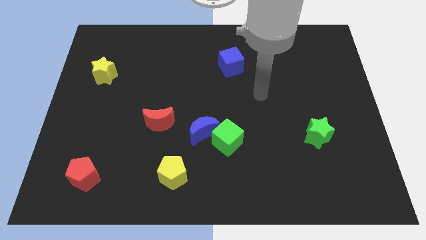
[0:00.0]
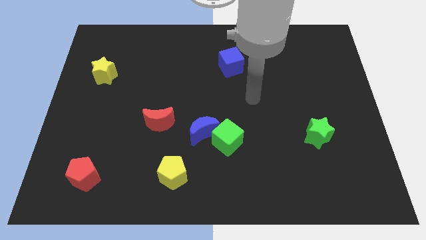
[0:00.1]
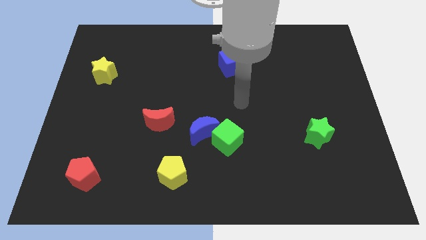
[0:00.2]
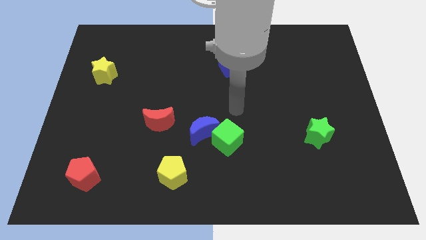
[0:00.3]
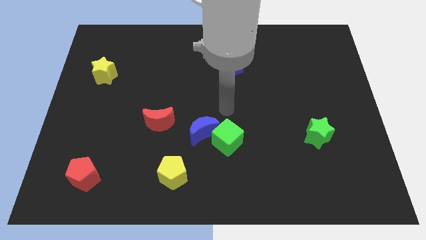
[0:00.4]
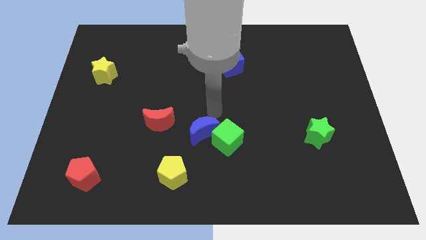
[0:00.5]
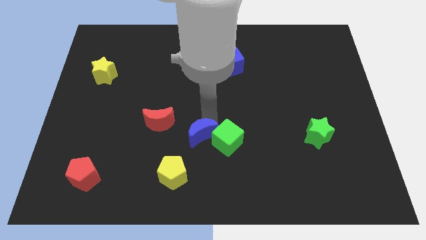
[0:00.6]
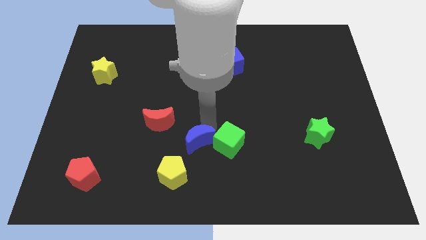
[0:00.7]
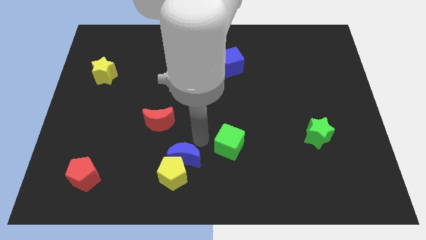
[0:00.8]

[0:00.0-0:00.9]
move the green cube away from the blue moon

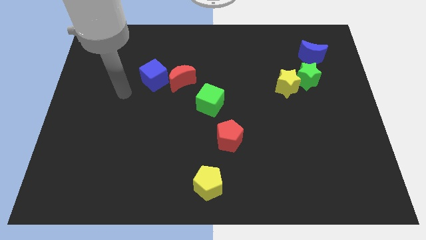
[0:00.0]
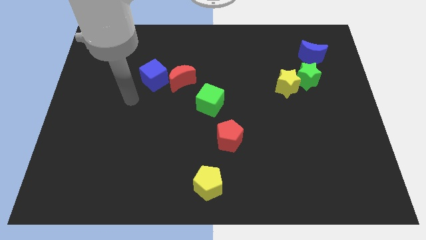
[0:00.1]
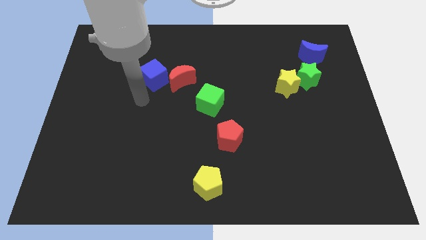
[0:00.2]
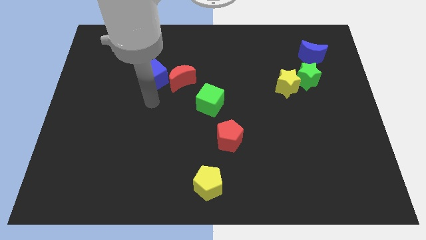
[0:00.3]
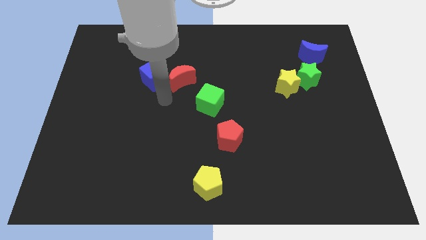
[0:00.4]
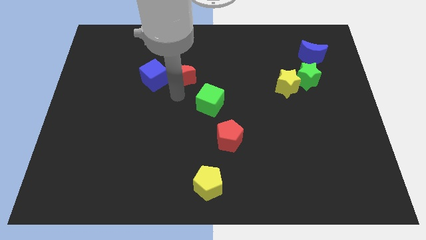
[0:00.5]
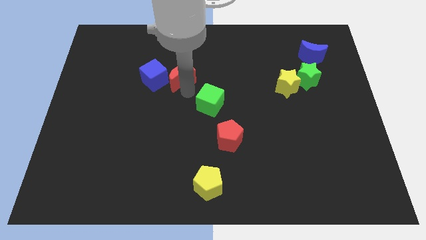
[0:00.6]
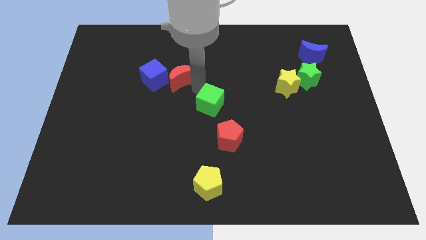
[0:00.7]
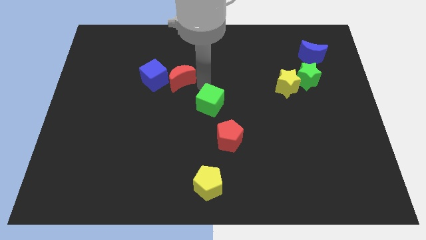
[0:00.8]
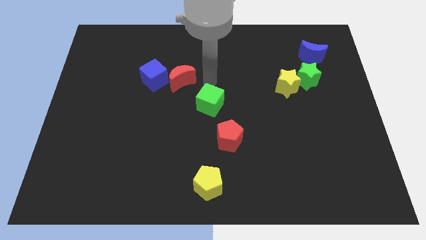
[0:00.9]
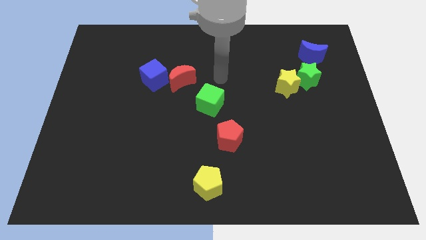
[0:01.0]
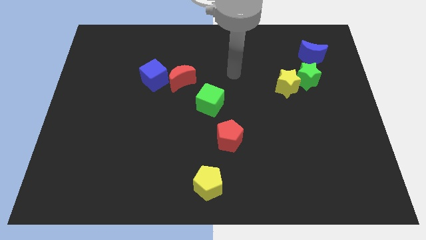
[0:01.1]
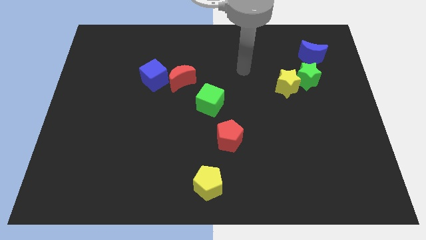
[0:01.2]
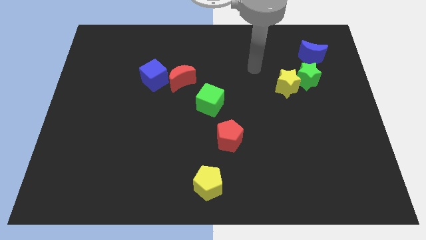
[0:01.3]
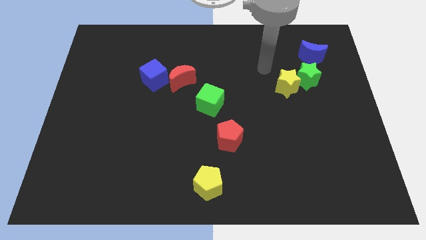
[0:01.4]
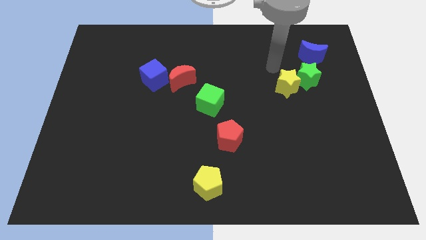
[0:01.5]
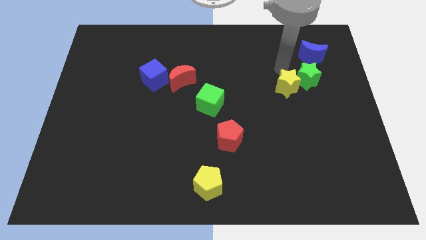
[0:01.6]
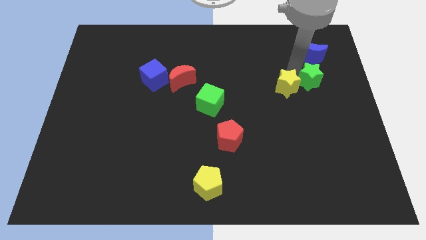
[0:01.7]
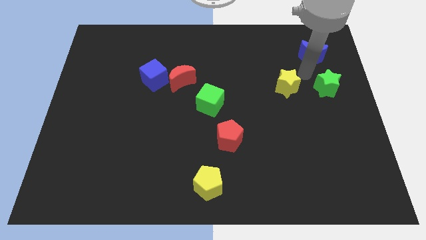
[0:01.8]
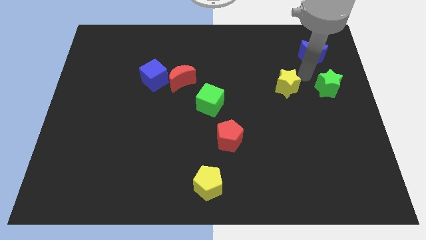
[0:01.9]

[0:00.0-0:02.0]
separate the yellow star from the green star

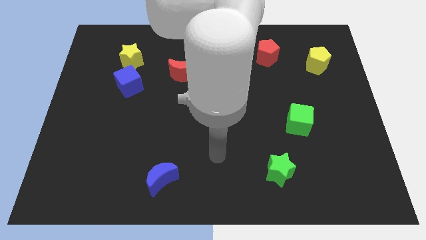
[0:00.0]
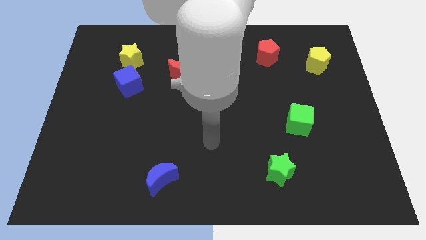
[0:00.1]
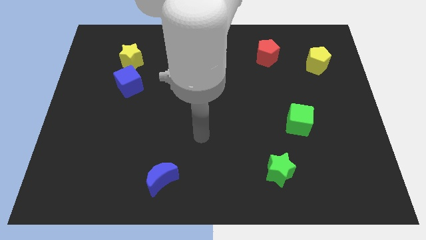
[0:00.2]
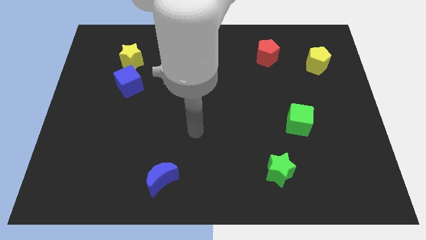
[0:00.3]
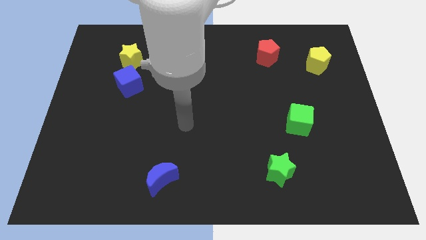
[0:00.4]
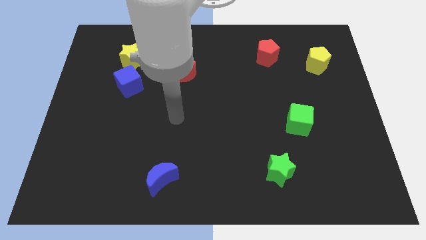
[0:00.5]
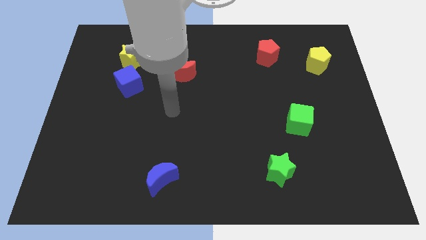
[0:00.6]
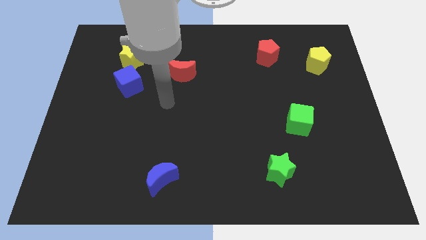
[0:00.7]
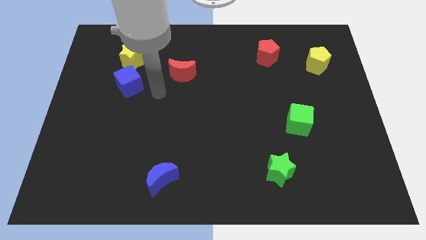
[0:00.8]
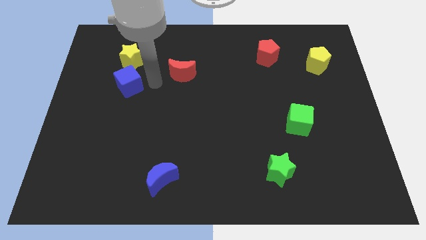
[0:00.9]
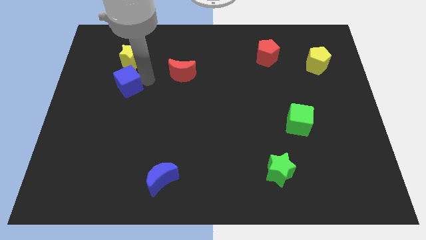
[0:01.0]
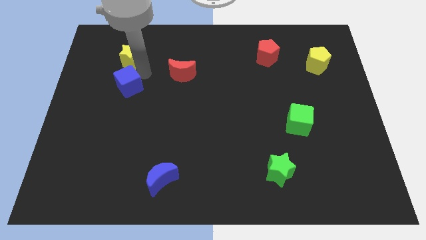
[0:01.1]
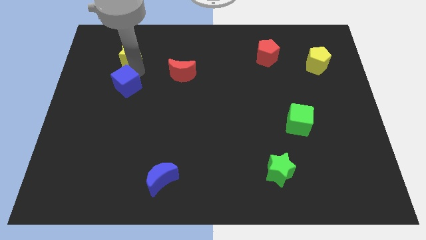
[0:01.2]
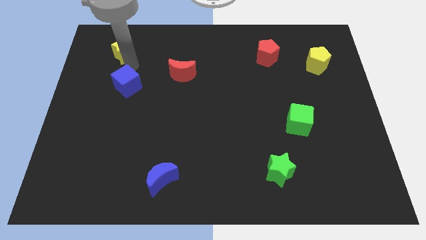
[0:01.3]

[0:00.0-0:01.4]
separate the blue cube from the yellow star

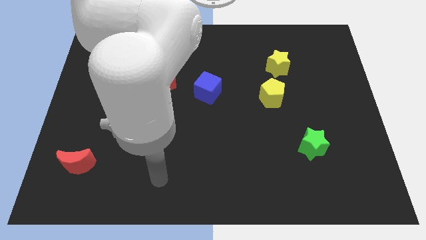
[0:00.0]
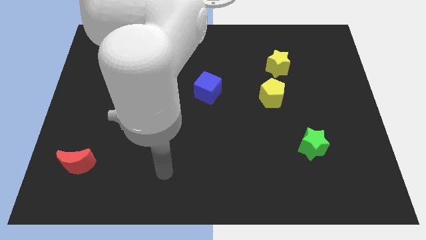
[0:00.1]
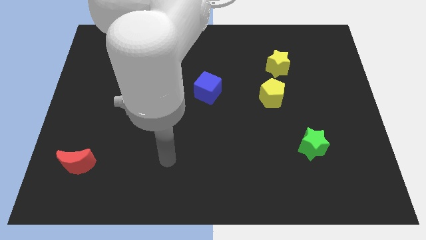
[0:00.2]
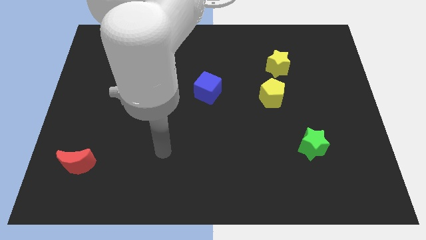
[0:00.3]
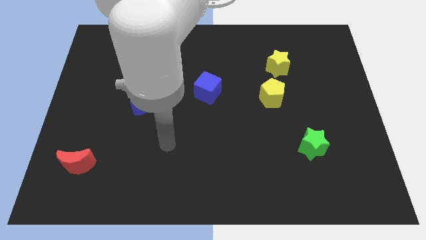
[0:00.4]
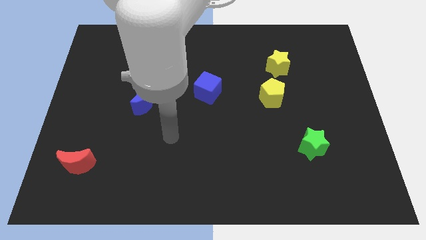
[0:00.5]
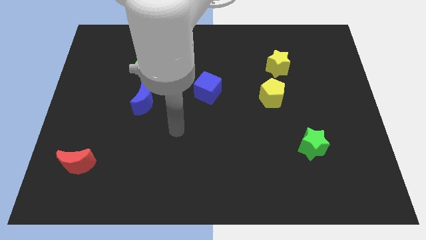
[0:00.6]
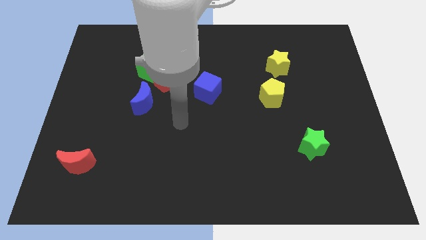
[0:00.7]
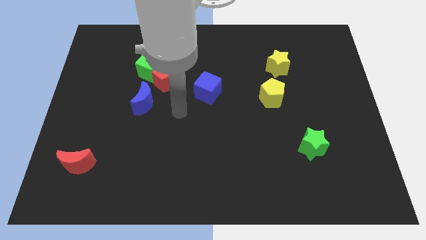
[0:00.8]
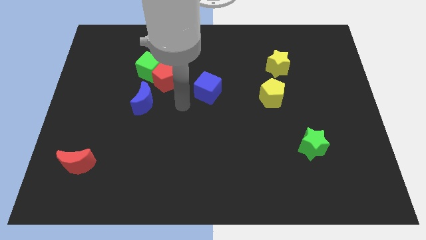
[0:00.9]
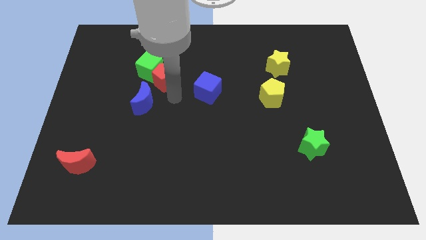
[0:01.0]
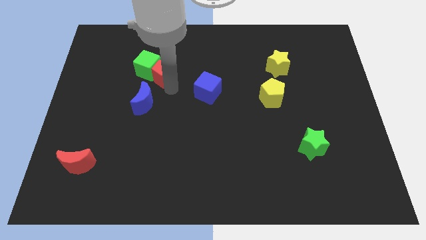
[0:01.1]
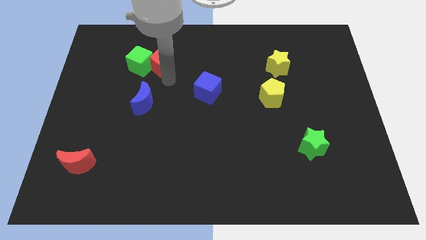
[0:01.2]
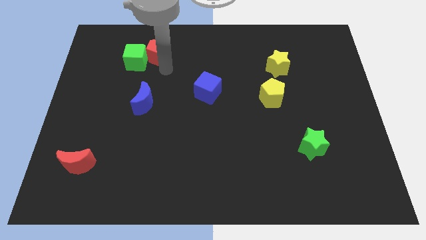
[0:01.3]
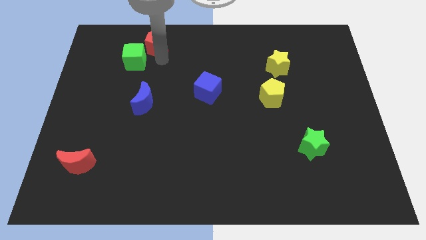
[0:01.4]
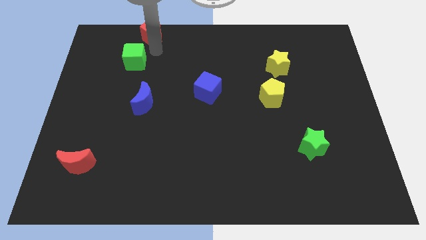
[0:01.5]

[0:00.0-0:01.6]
move the green cube away from the red pentagon

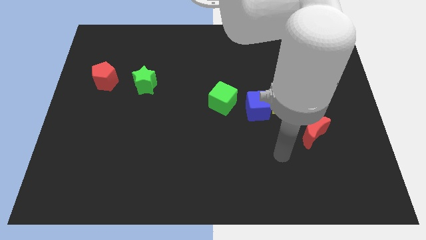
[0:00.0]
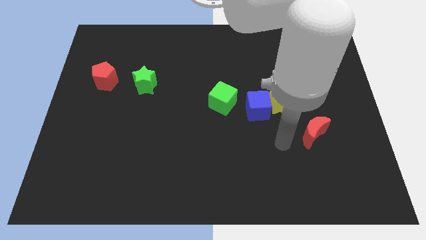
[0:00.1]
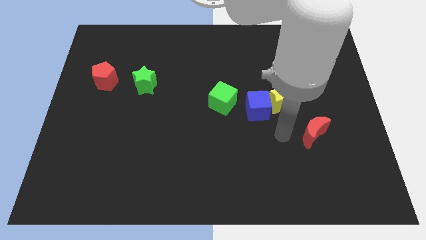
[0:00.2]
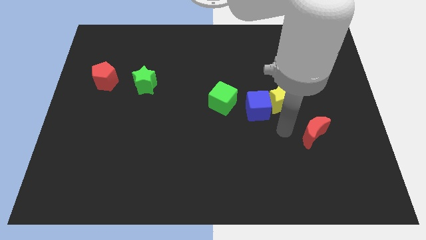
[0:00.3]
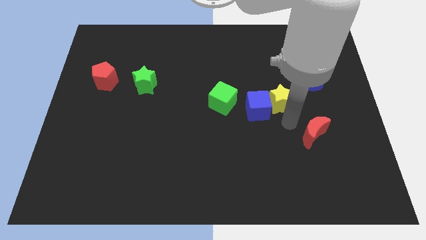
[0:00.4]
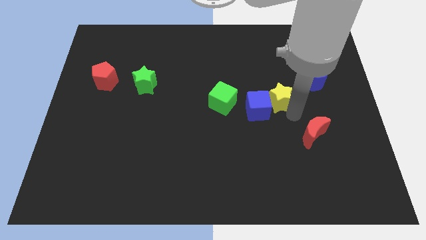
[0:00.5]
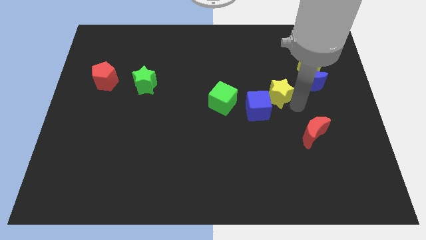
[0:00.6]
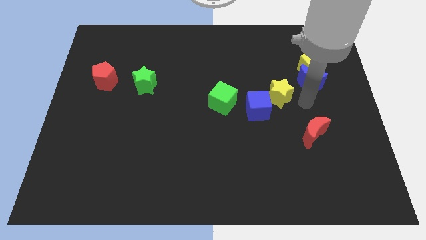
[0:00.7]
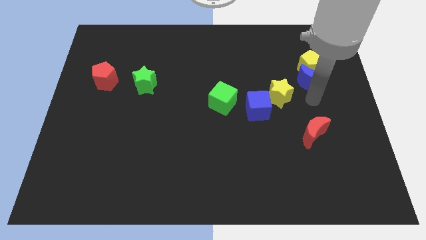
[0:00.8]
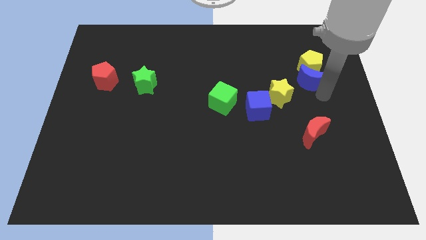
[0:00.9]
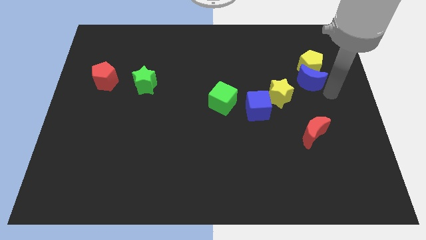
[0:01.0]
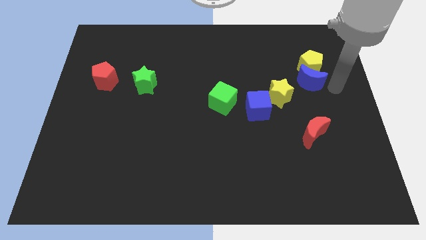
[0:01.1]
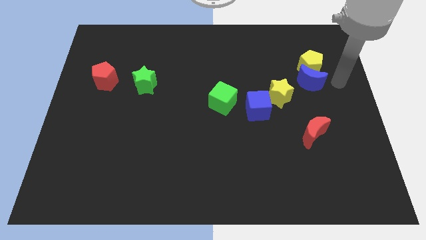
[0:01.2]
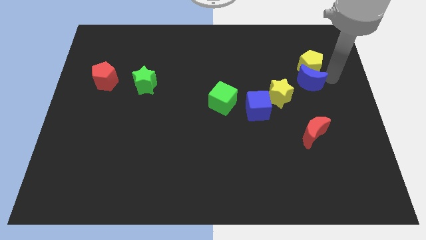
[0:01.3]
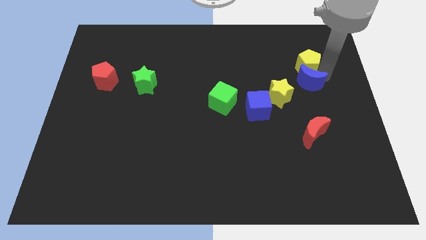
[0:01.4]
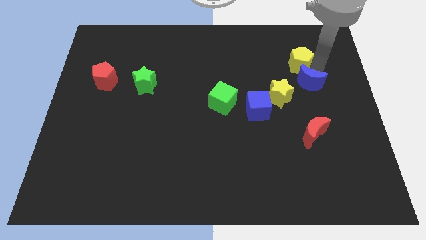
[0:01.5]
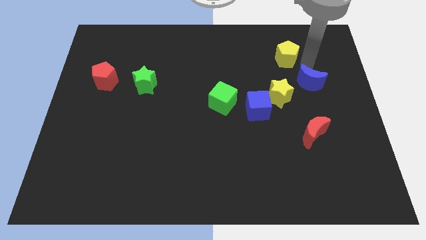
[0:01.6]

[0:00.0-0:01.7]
move the blue moon away from the yellow pentagon

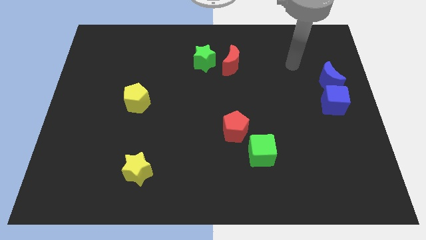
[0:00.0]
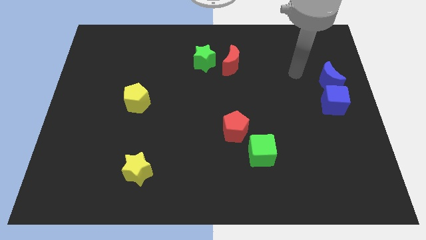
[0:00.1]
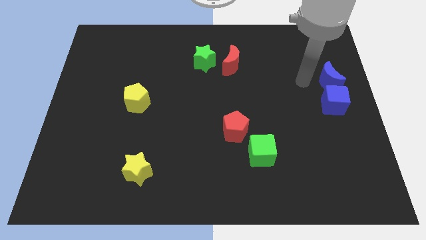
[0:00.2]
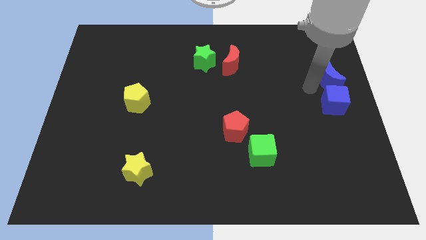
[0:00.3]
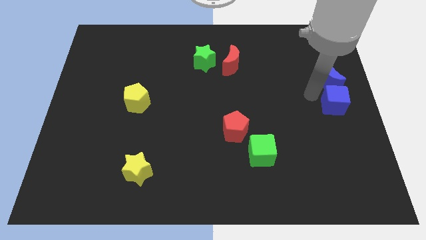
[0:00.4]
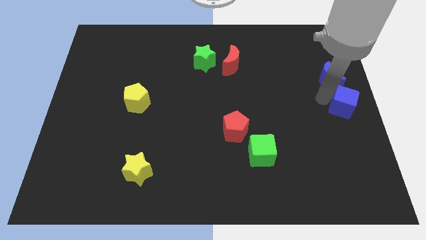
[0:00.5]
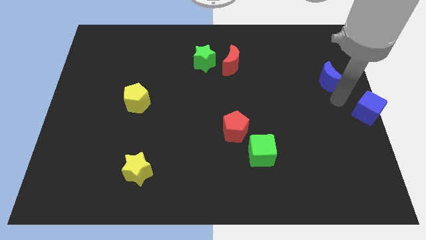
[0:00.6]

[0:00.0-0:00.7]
move the blue moon away from the blue cube

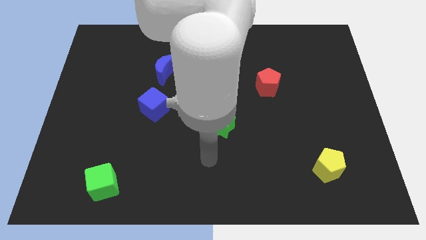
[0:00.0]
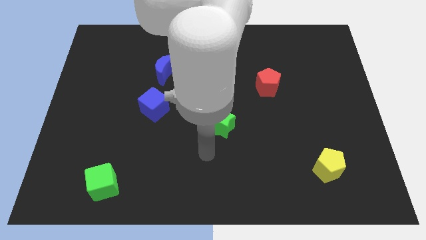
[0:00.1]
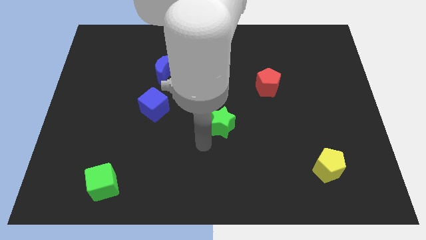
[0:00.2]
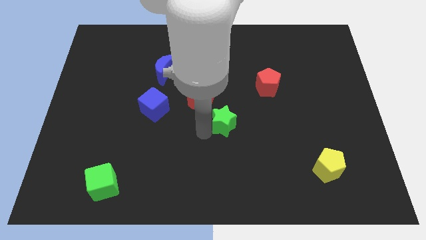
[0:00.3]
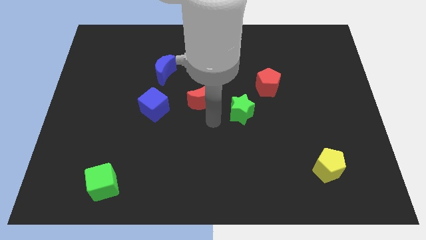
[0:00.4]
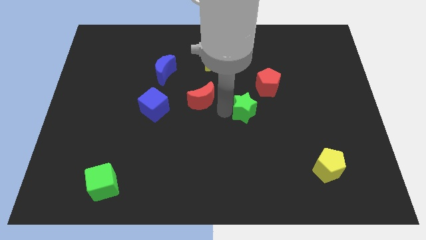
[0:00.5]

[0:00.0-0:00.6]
move the red moon away from the green star

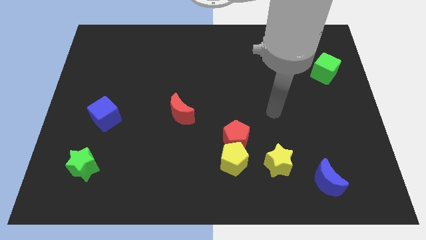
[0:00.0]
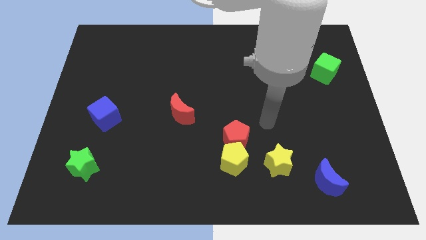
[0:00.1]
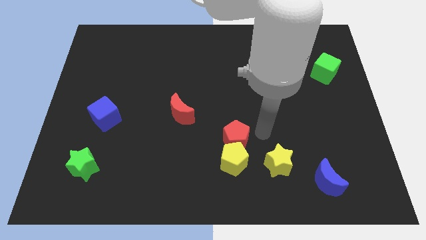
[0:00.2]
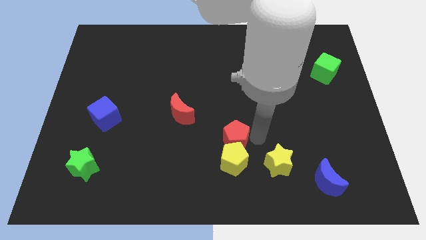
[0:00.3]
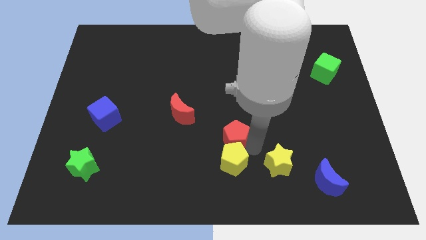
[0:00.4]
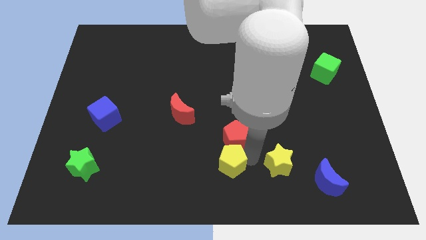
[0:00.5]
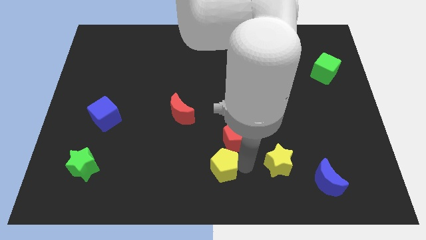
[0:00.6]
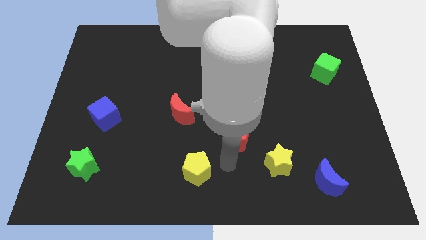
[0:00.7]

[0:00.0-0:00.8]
separate the red pentagon from the yellow pentagon
